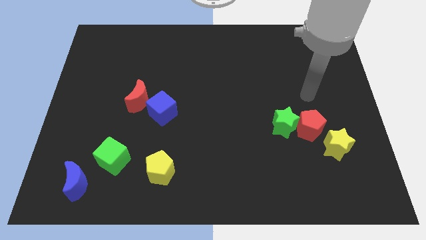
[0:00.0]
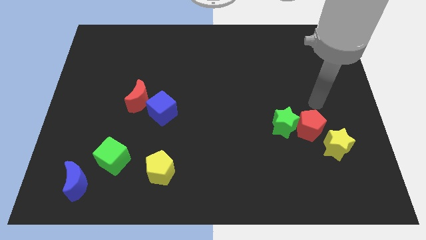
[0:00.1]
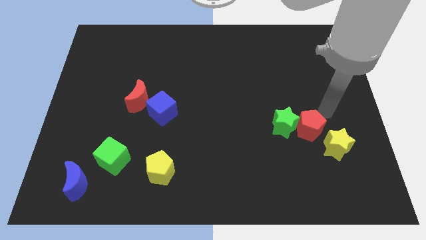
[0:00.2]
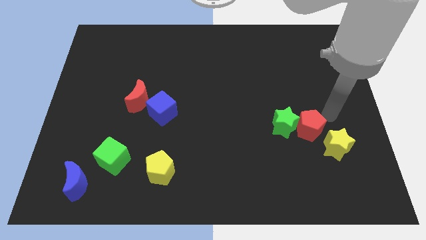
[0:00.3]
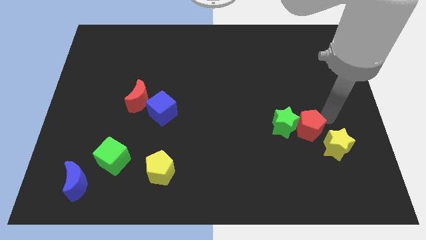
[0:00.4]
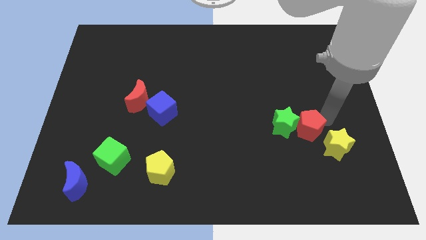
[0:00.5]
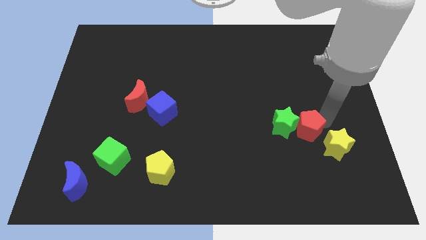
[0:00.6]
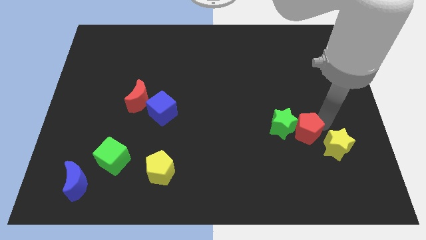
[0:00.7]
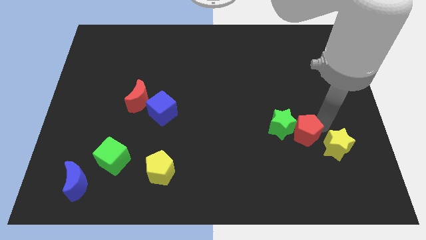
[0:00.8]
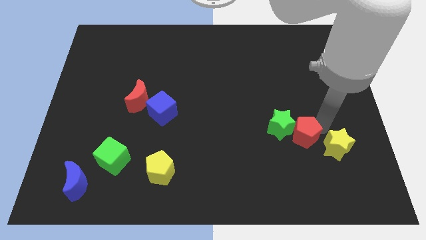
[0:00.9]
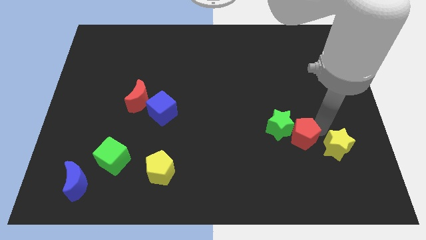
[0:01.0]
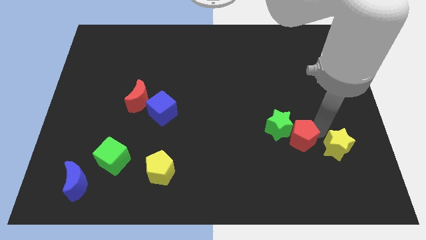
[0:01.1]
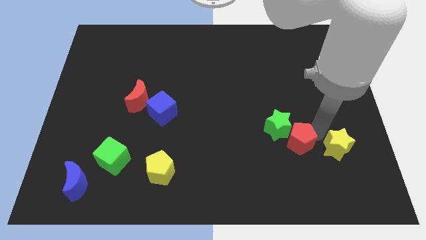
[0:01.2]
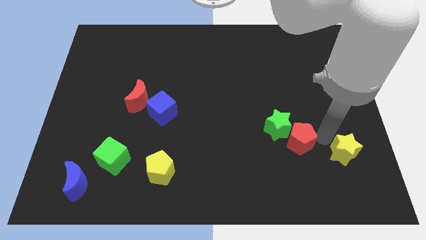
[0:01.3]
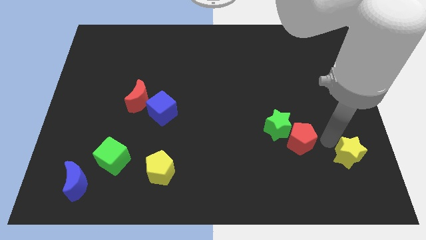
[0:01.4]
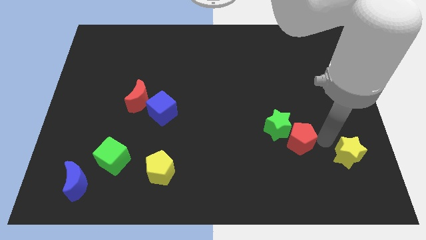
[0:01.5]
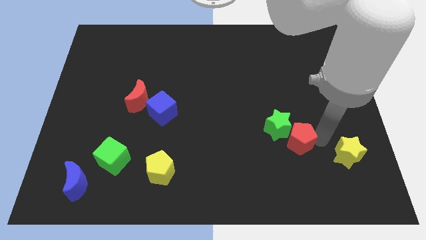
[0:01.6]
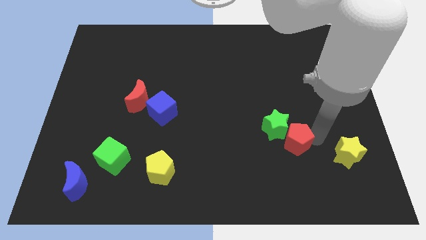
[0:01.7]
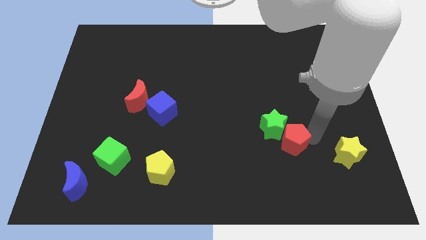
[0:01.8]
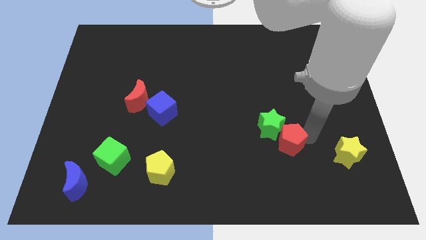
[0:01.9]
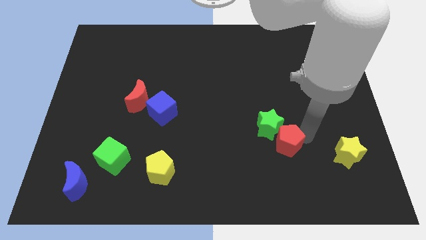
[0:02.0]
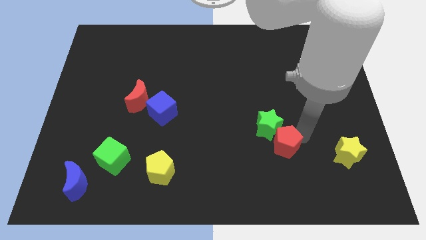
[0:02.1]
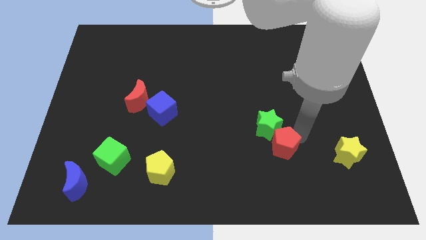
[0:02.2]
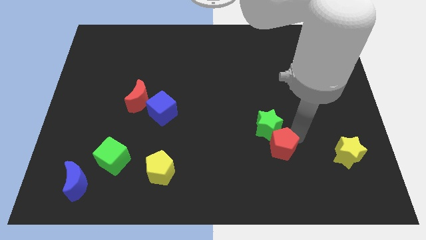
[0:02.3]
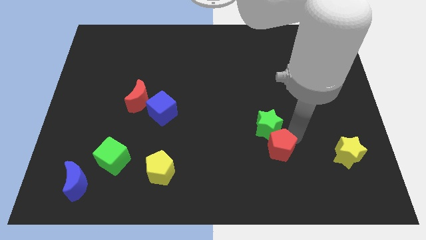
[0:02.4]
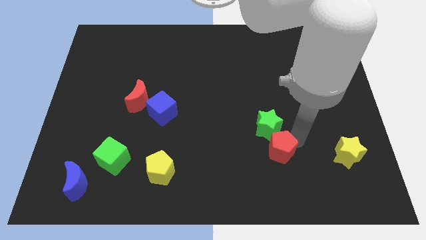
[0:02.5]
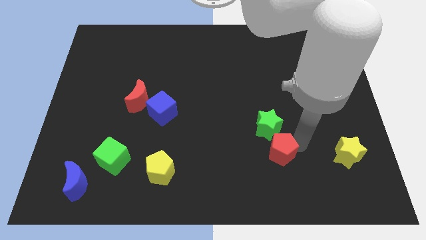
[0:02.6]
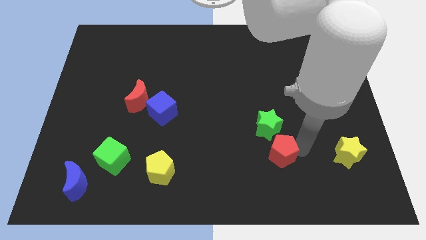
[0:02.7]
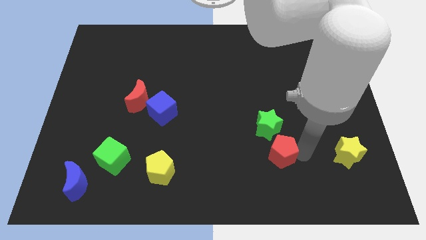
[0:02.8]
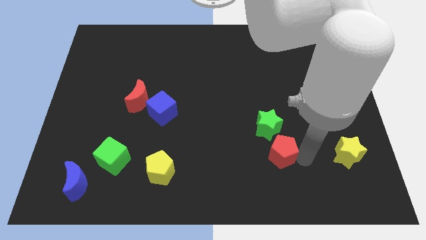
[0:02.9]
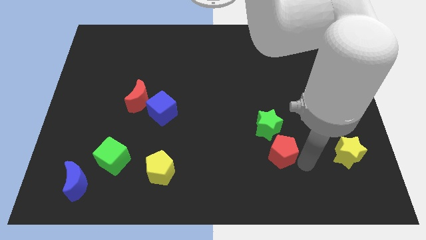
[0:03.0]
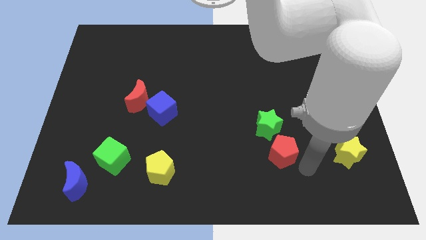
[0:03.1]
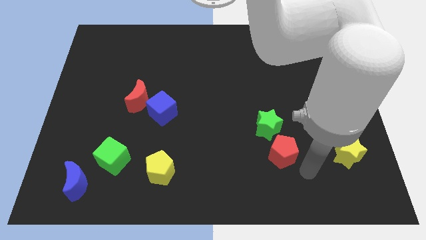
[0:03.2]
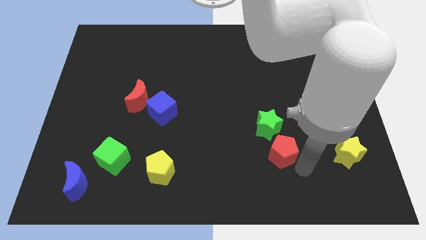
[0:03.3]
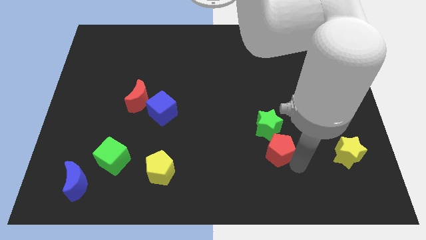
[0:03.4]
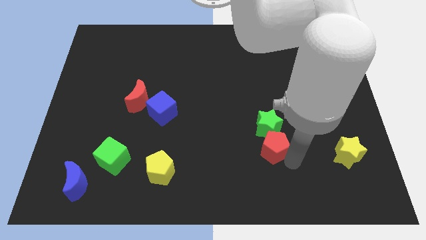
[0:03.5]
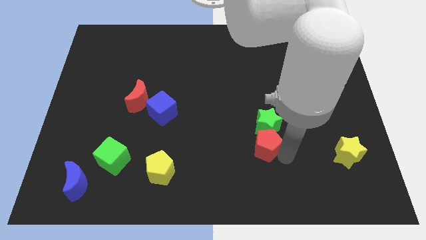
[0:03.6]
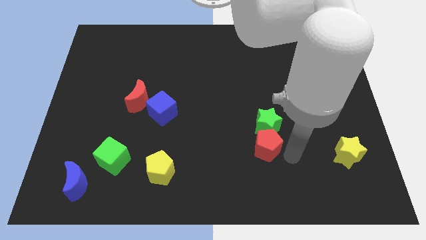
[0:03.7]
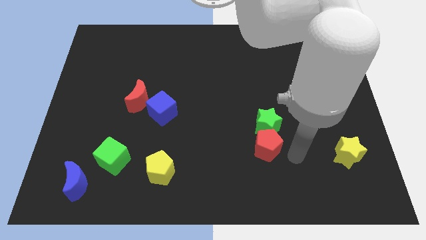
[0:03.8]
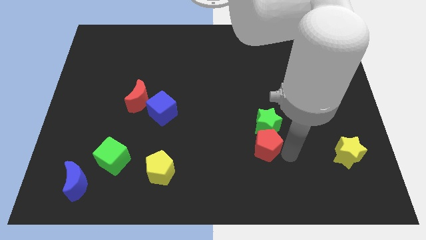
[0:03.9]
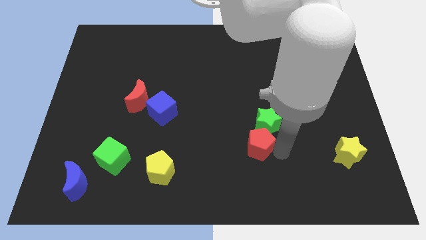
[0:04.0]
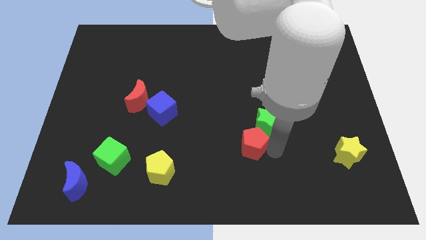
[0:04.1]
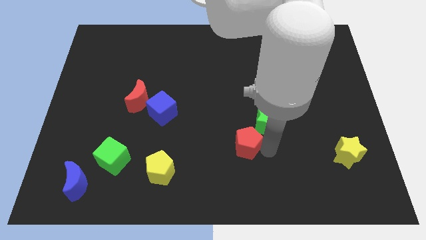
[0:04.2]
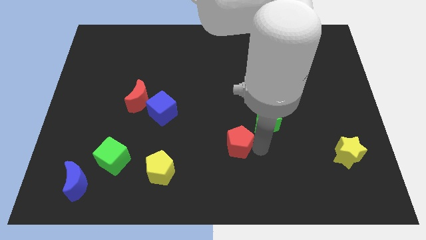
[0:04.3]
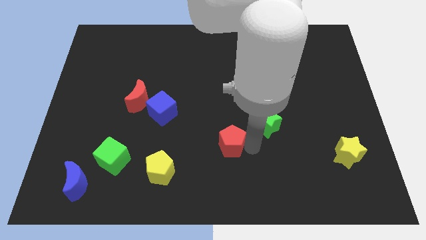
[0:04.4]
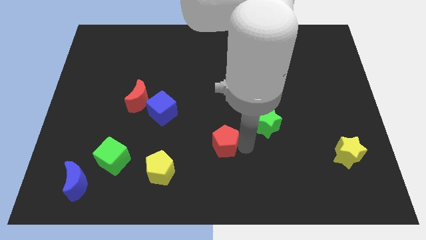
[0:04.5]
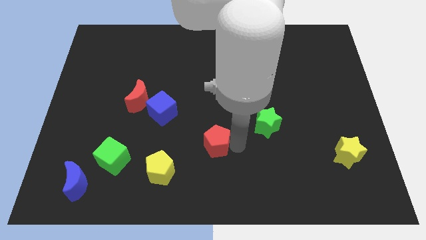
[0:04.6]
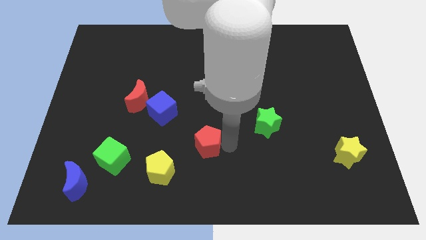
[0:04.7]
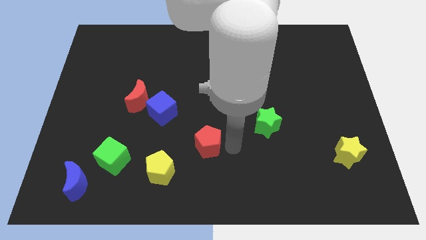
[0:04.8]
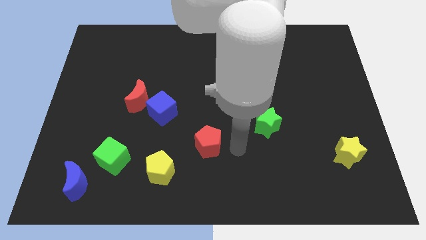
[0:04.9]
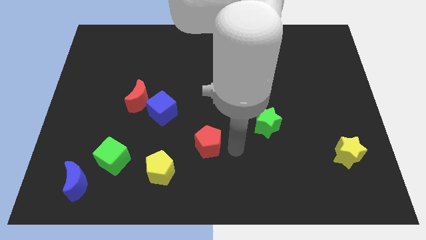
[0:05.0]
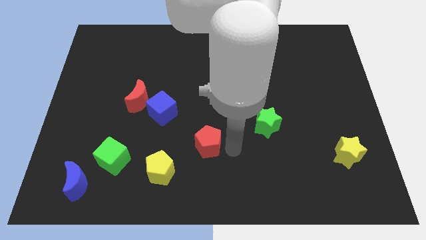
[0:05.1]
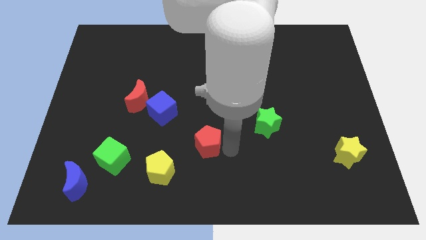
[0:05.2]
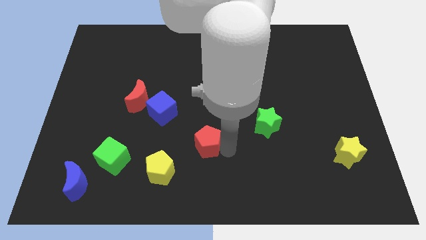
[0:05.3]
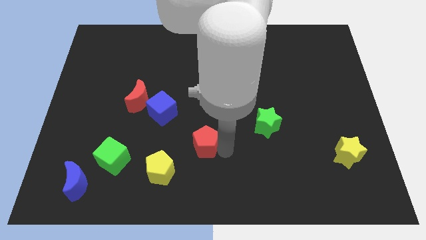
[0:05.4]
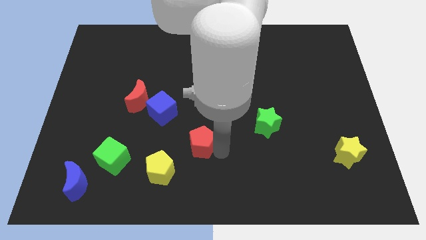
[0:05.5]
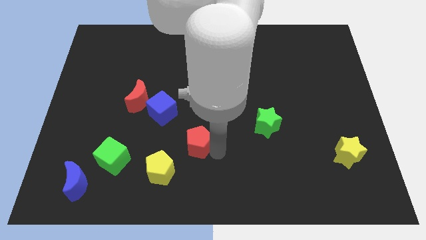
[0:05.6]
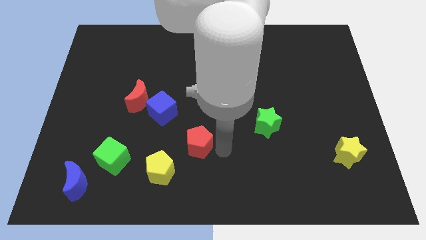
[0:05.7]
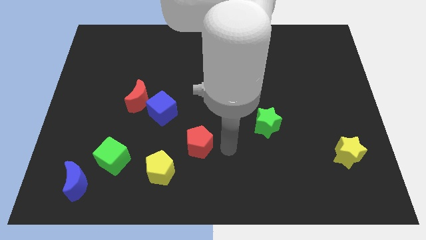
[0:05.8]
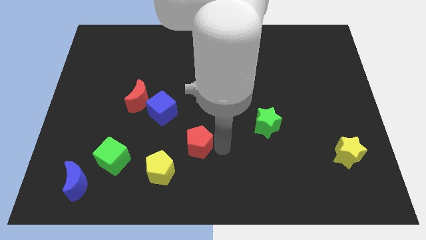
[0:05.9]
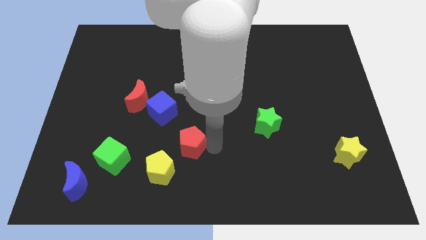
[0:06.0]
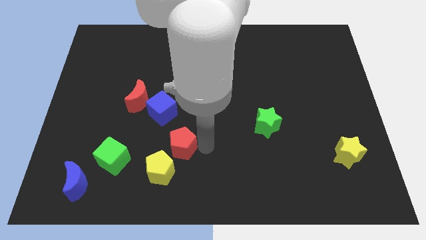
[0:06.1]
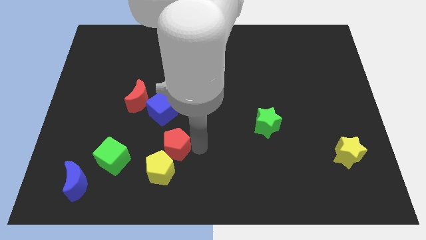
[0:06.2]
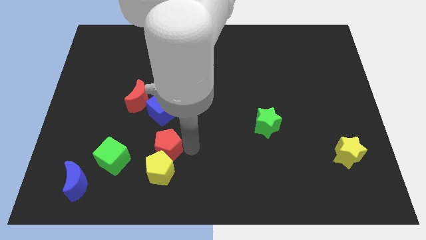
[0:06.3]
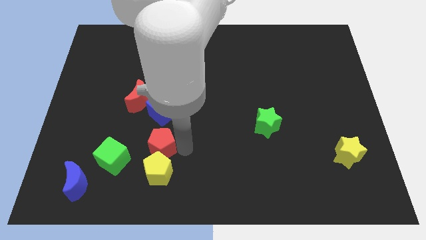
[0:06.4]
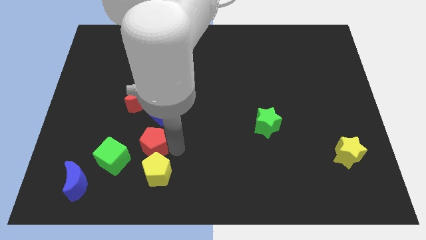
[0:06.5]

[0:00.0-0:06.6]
move the red pentagon to the bottom side of the red moon
